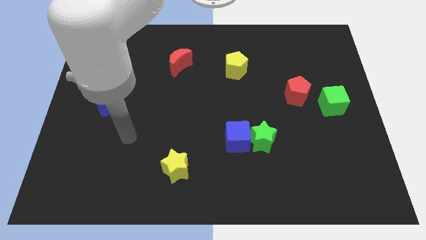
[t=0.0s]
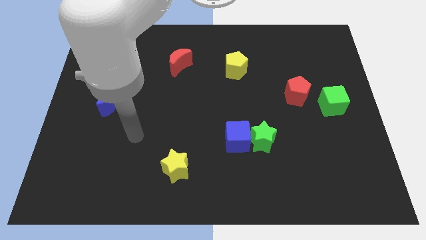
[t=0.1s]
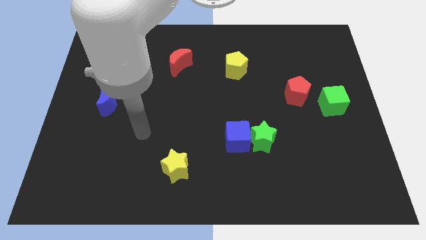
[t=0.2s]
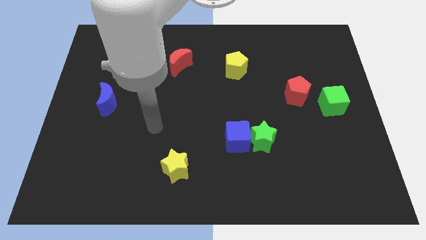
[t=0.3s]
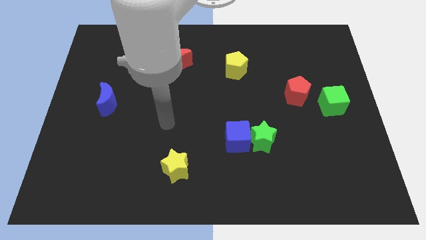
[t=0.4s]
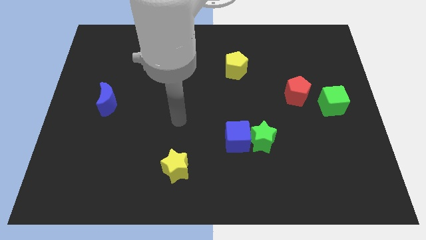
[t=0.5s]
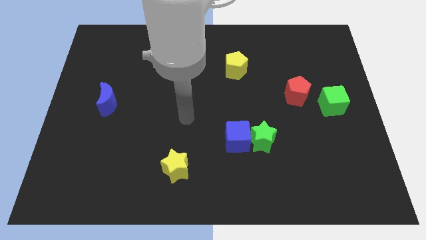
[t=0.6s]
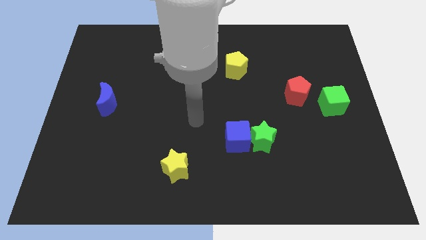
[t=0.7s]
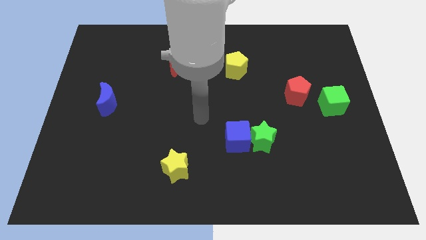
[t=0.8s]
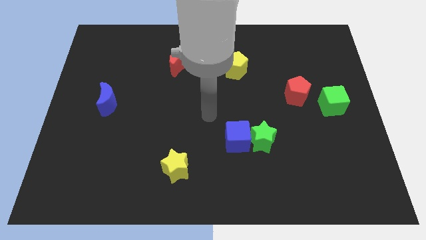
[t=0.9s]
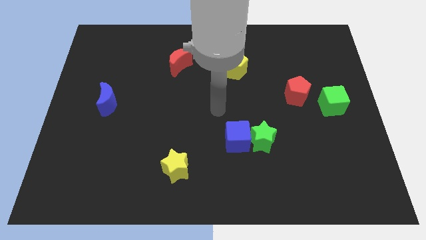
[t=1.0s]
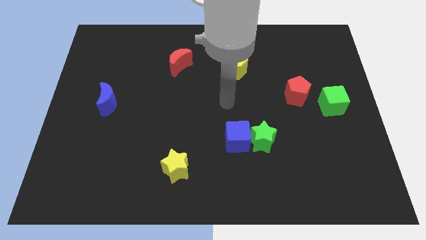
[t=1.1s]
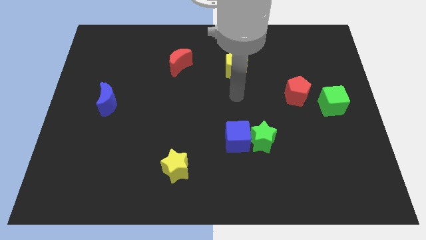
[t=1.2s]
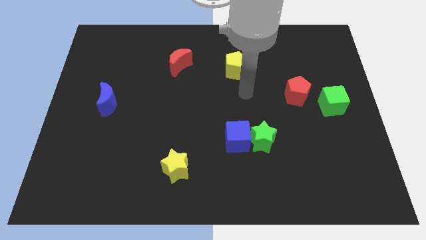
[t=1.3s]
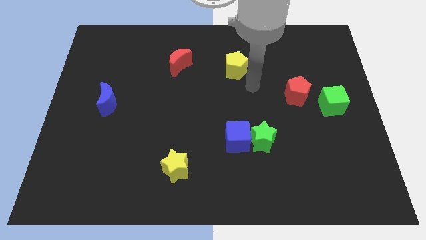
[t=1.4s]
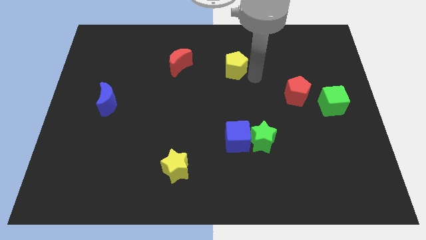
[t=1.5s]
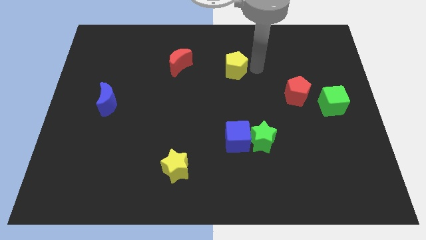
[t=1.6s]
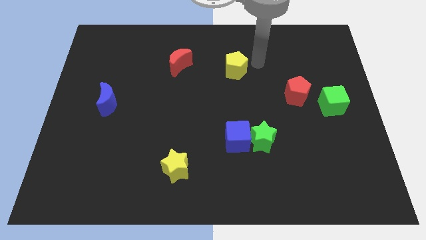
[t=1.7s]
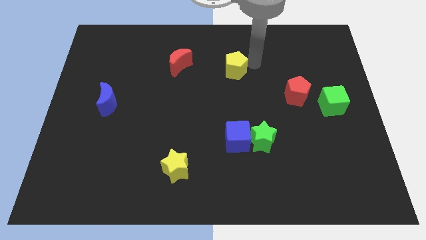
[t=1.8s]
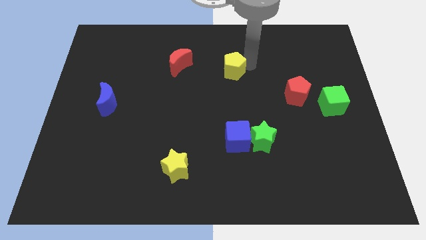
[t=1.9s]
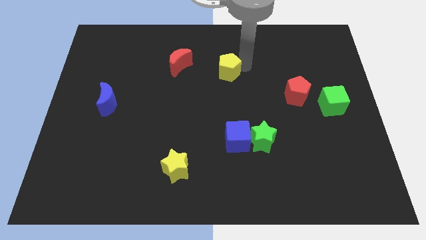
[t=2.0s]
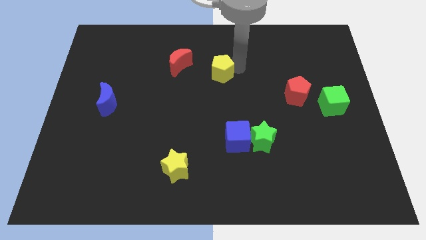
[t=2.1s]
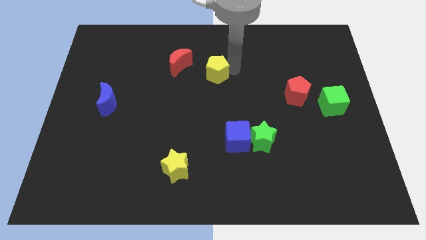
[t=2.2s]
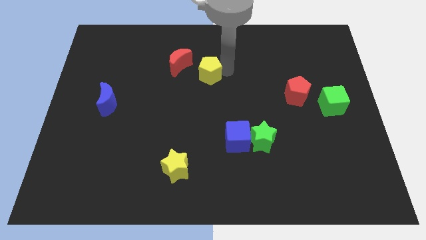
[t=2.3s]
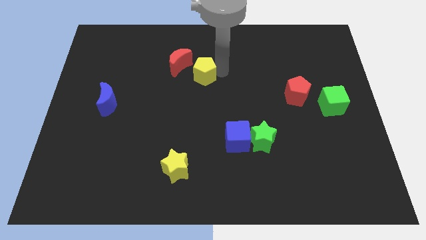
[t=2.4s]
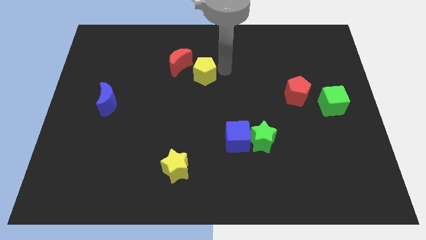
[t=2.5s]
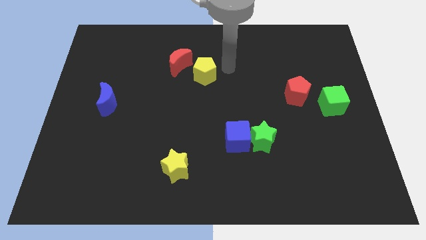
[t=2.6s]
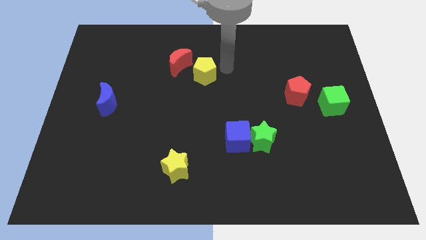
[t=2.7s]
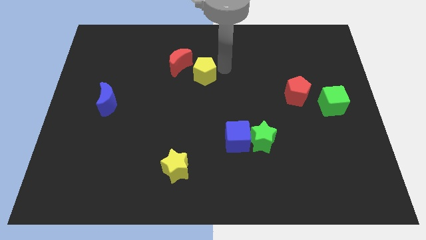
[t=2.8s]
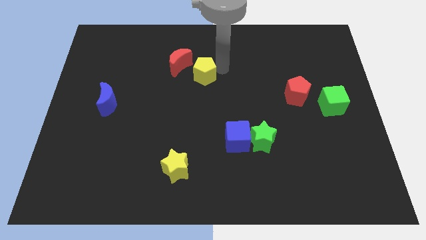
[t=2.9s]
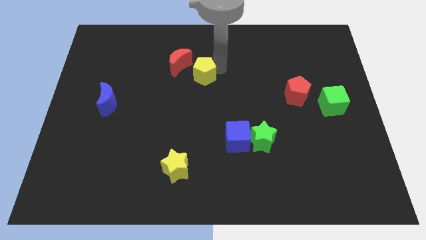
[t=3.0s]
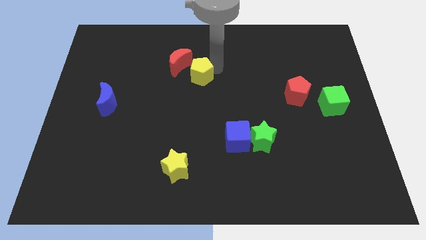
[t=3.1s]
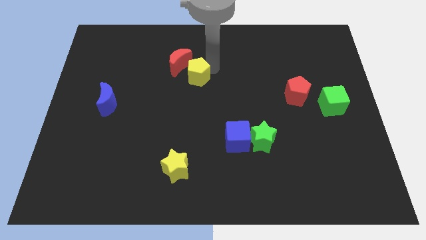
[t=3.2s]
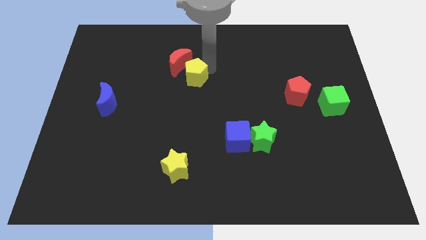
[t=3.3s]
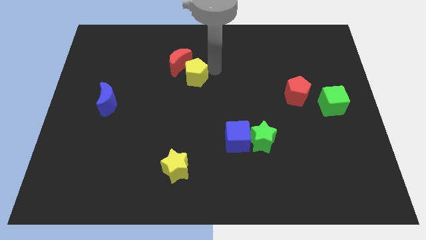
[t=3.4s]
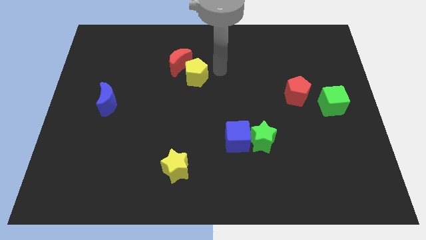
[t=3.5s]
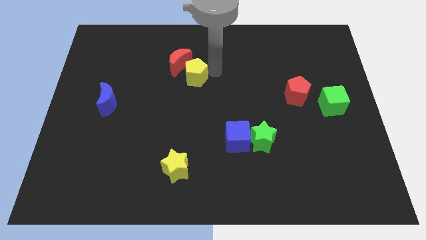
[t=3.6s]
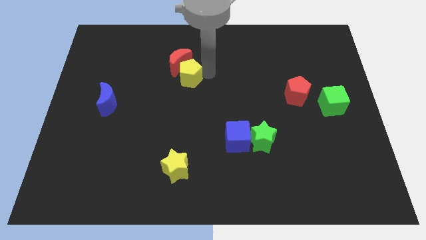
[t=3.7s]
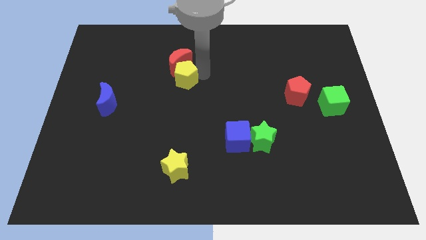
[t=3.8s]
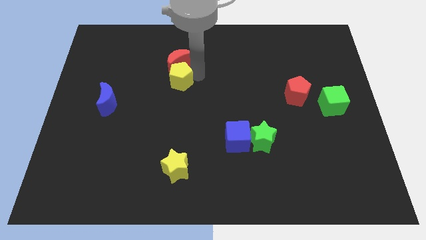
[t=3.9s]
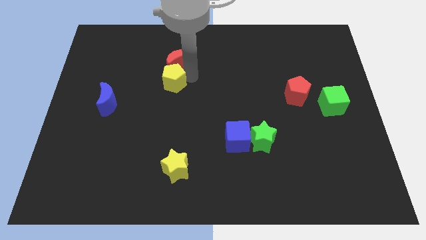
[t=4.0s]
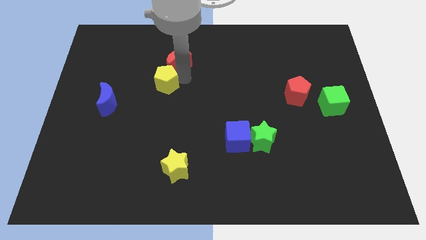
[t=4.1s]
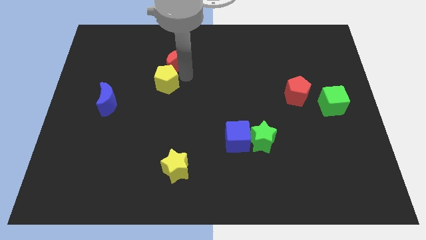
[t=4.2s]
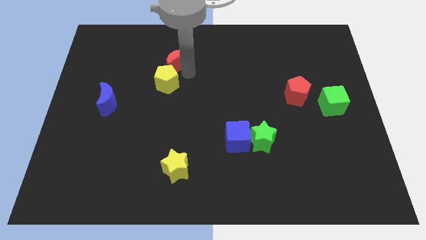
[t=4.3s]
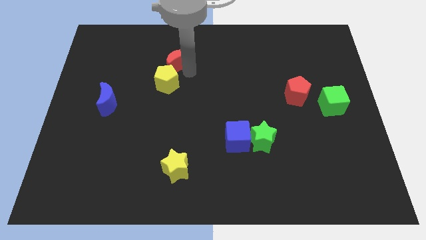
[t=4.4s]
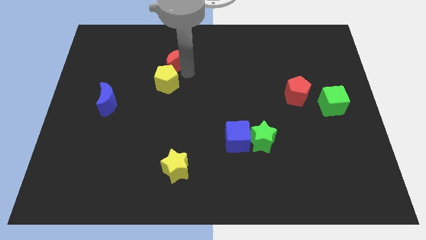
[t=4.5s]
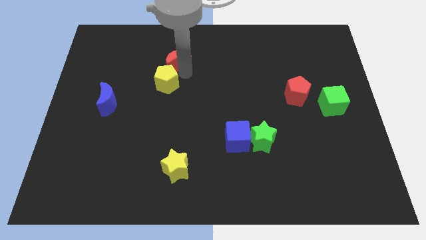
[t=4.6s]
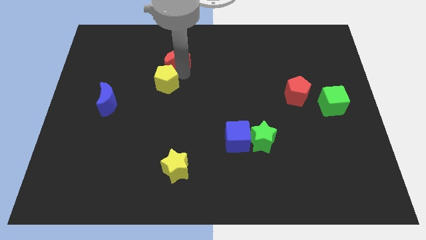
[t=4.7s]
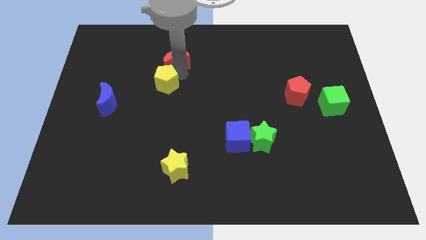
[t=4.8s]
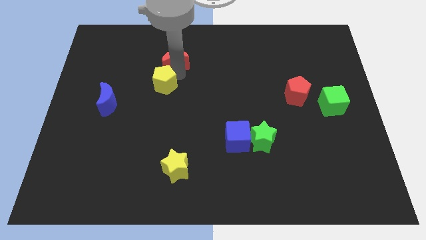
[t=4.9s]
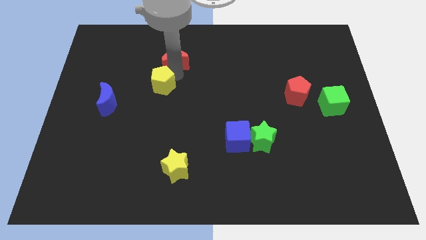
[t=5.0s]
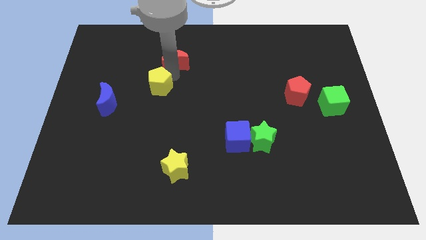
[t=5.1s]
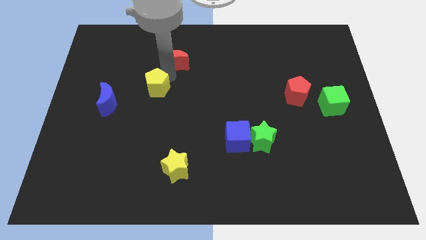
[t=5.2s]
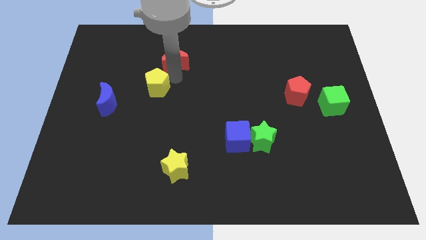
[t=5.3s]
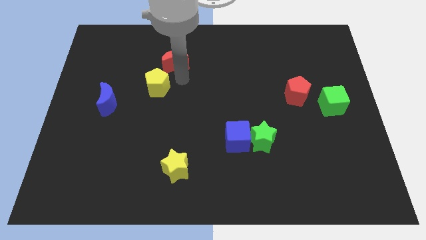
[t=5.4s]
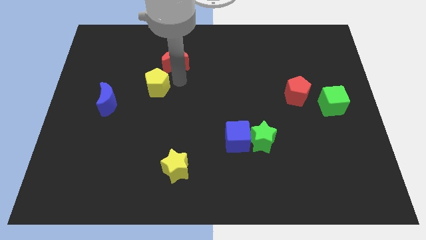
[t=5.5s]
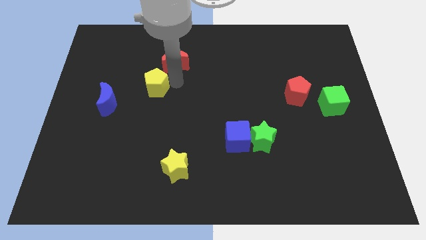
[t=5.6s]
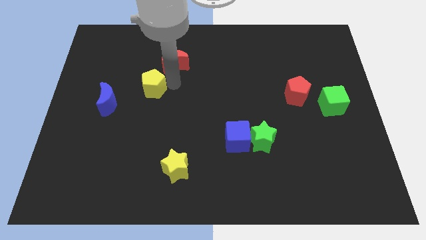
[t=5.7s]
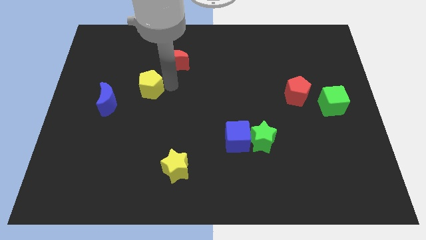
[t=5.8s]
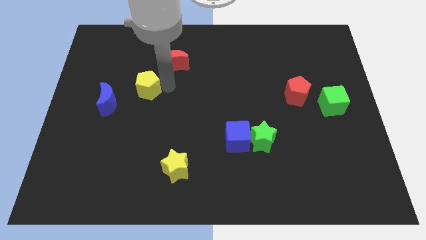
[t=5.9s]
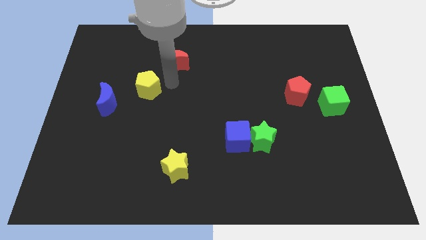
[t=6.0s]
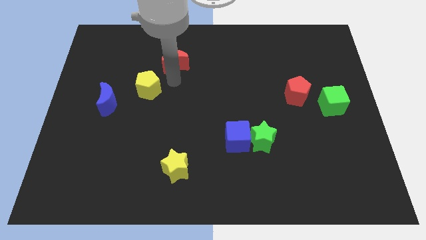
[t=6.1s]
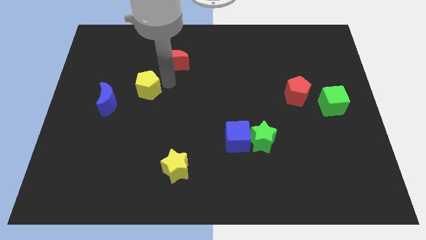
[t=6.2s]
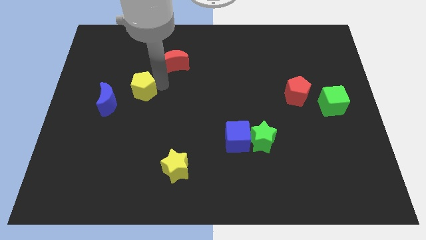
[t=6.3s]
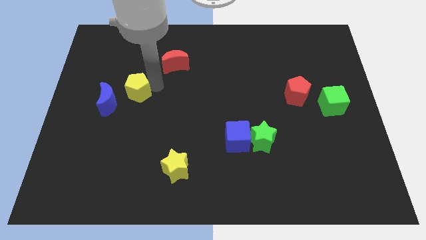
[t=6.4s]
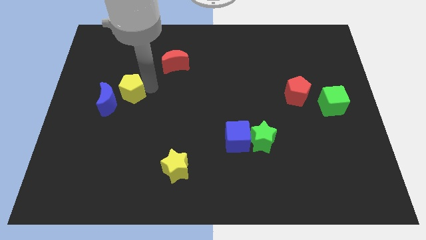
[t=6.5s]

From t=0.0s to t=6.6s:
push the yellow pentagon towards the blue moon

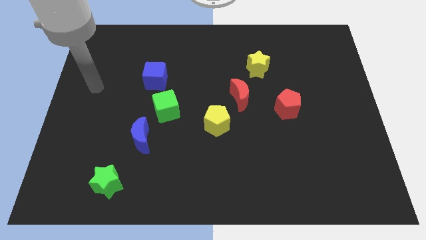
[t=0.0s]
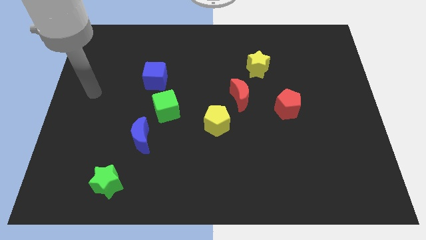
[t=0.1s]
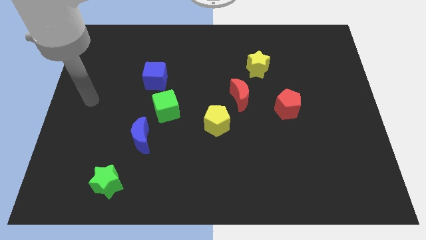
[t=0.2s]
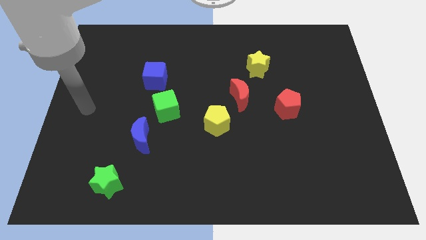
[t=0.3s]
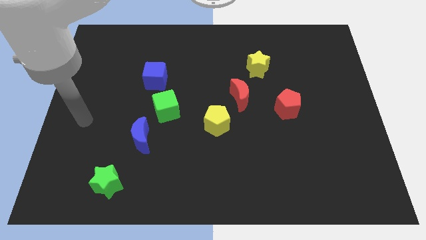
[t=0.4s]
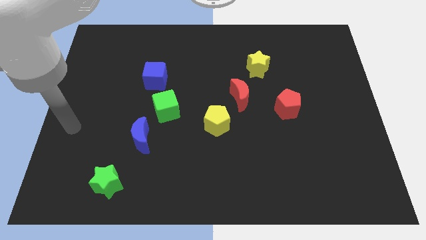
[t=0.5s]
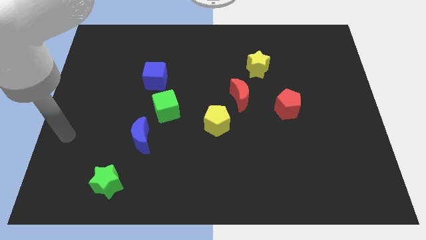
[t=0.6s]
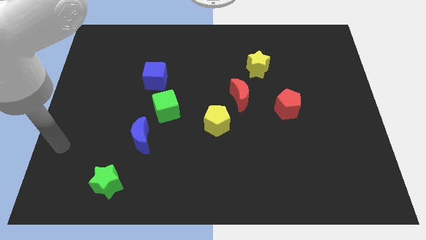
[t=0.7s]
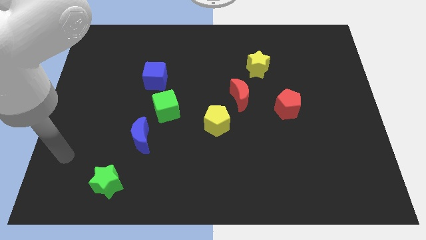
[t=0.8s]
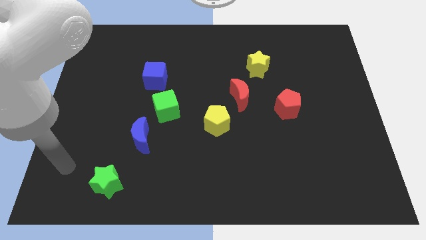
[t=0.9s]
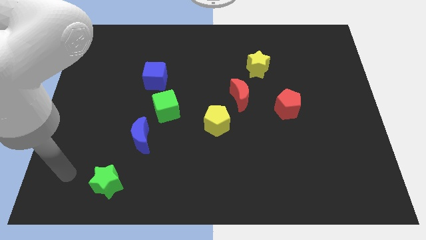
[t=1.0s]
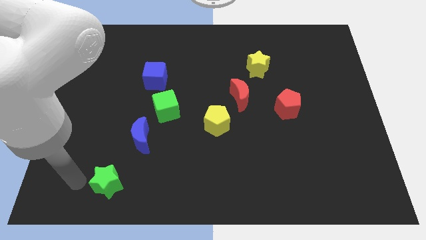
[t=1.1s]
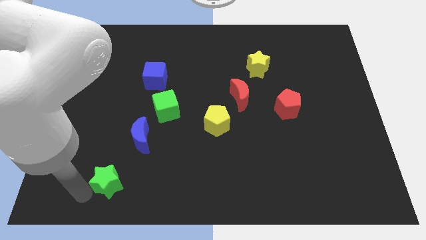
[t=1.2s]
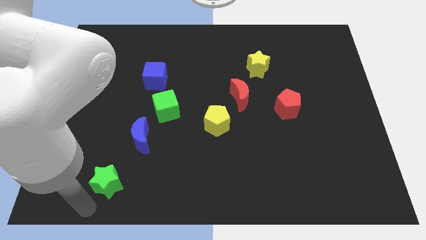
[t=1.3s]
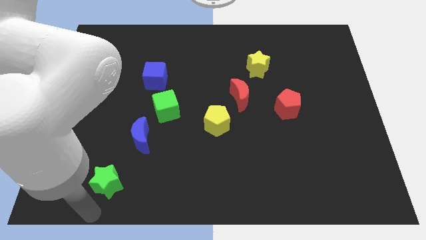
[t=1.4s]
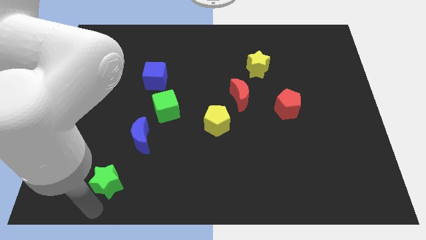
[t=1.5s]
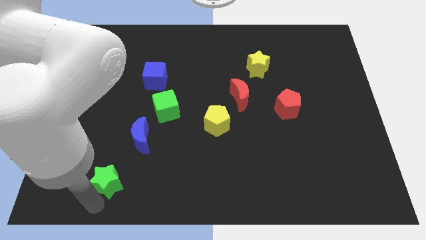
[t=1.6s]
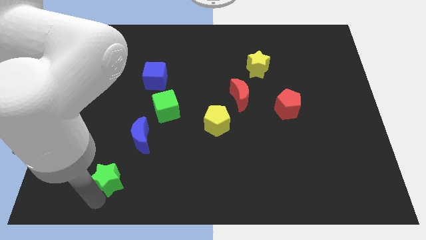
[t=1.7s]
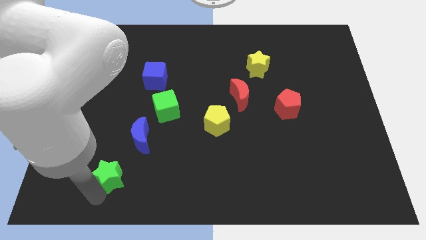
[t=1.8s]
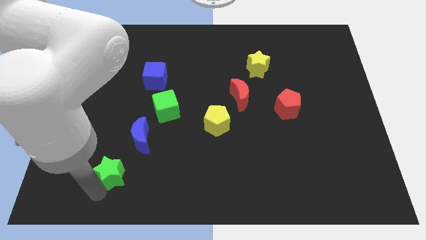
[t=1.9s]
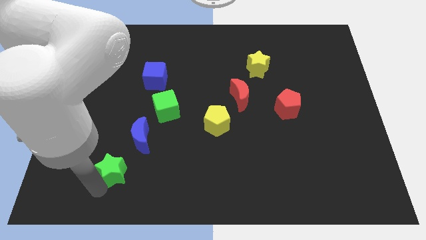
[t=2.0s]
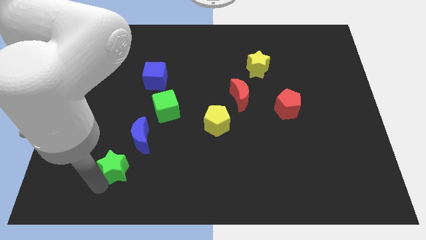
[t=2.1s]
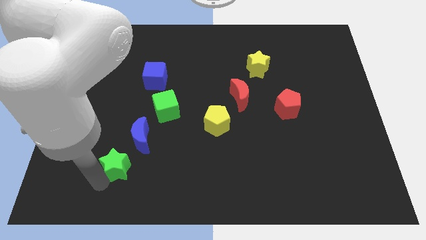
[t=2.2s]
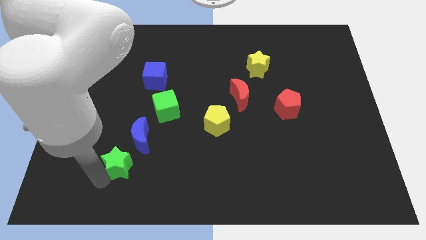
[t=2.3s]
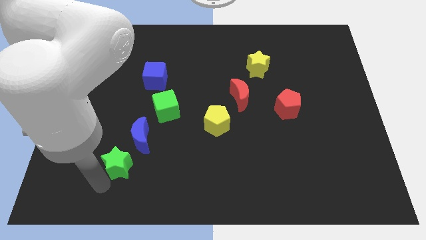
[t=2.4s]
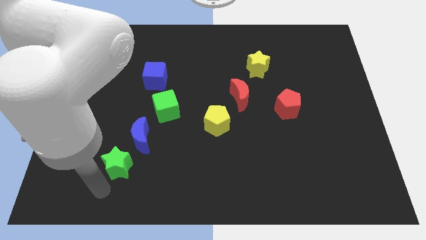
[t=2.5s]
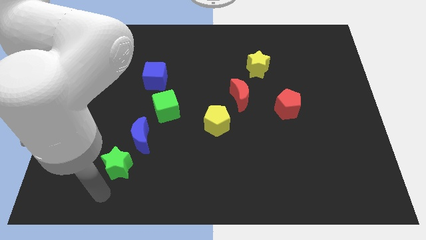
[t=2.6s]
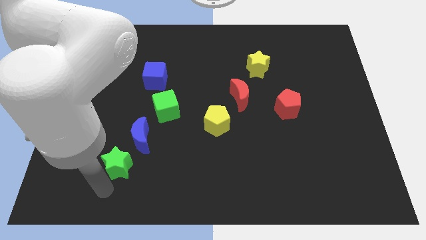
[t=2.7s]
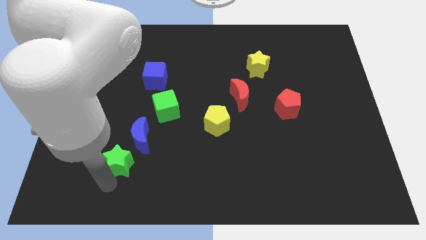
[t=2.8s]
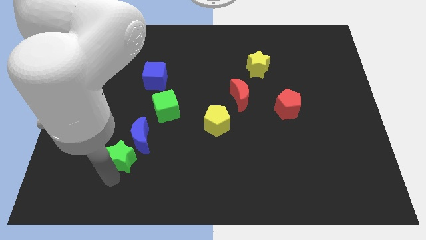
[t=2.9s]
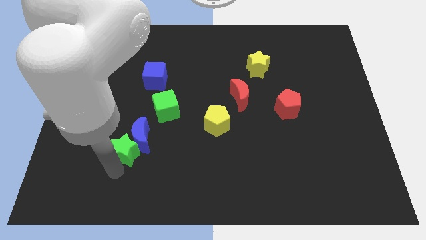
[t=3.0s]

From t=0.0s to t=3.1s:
move the green star close to the blue moon
